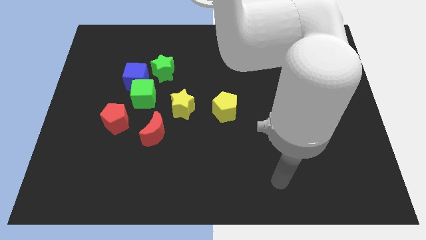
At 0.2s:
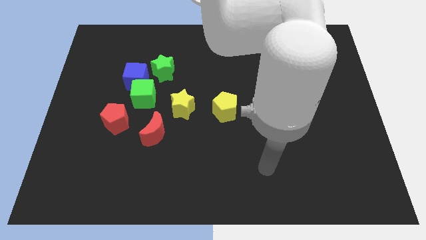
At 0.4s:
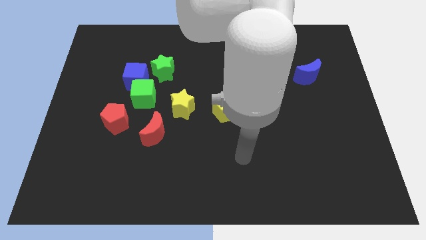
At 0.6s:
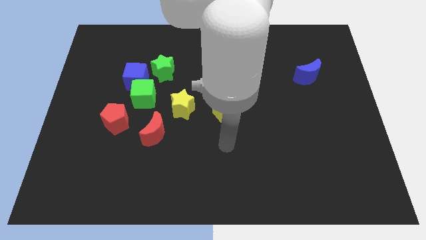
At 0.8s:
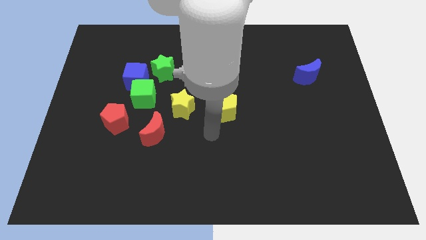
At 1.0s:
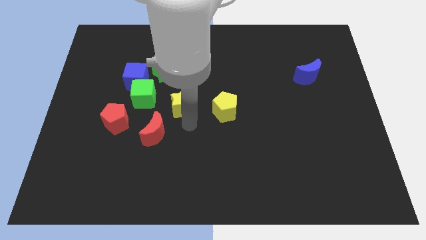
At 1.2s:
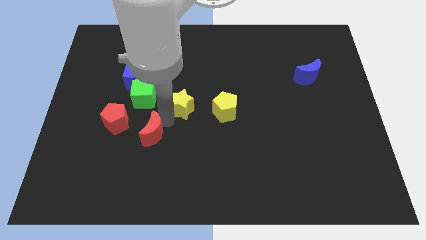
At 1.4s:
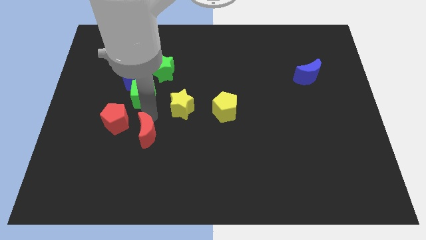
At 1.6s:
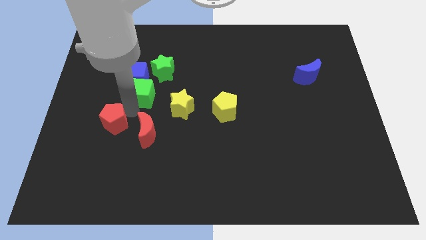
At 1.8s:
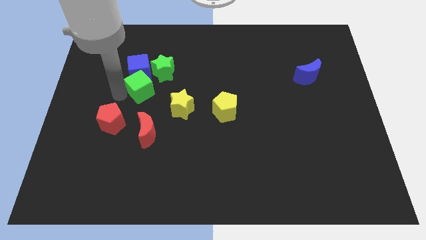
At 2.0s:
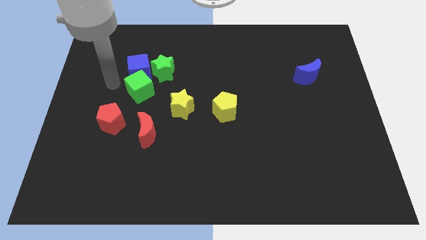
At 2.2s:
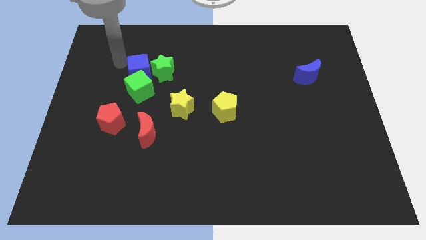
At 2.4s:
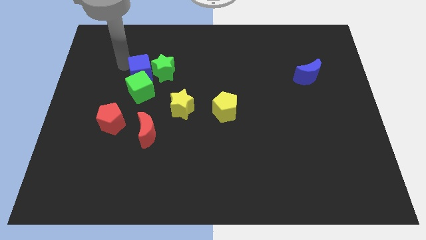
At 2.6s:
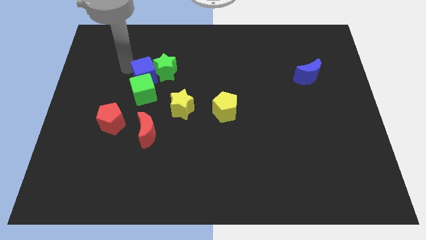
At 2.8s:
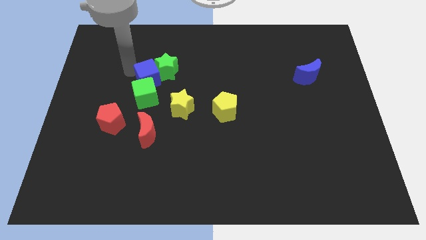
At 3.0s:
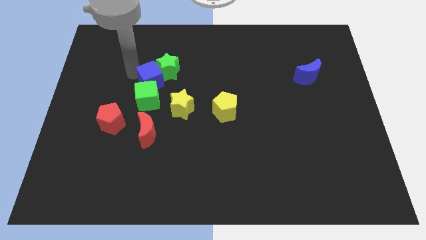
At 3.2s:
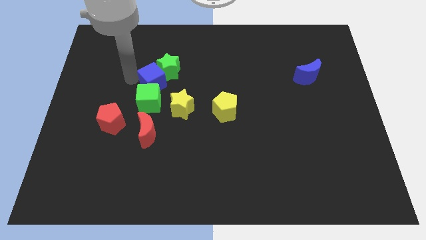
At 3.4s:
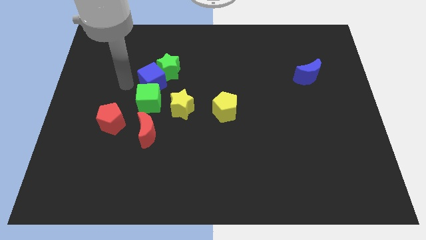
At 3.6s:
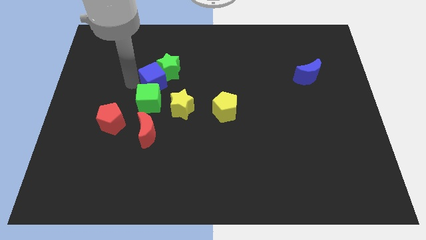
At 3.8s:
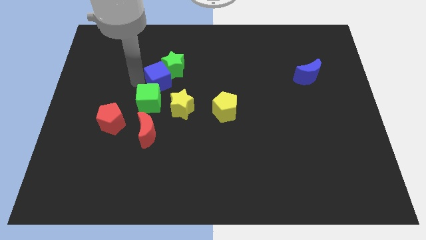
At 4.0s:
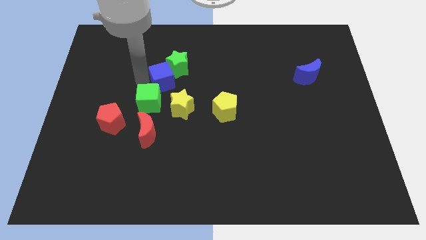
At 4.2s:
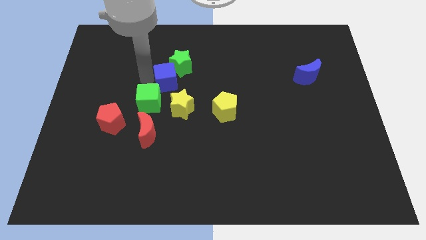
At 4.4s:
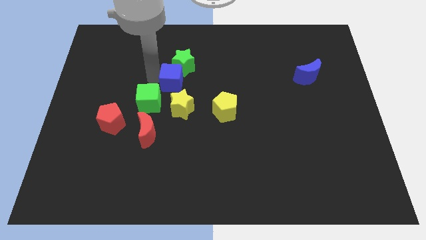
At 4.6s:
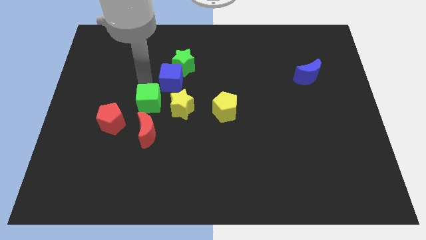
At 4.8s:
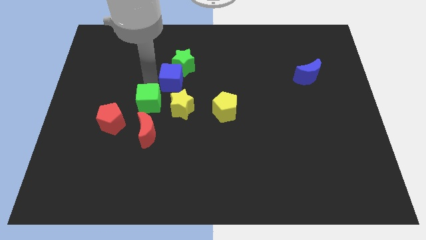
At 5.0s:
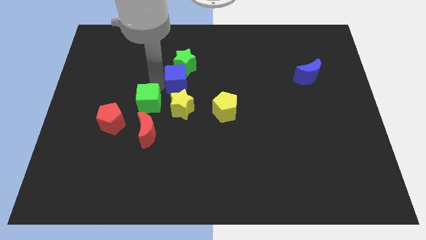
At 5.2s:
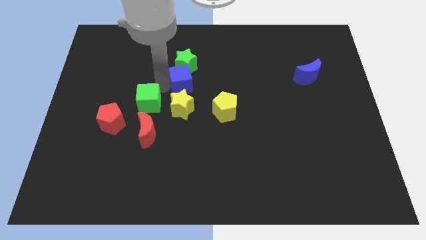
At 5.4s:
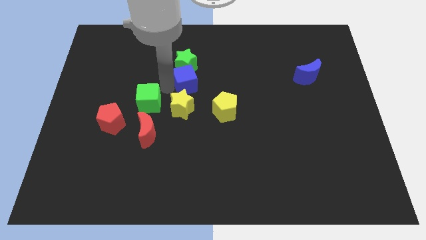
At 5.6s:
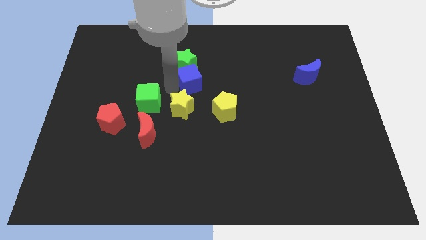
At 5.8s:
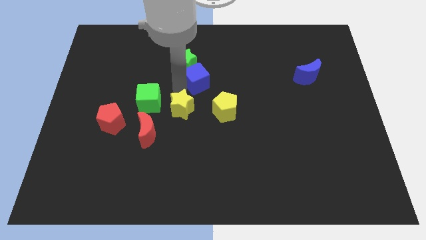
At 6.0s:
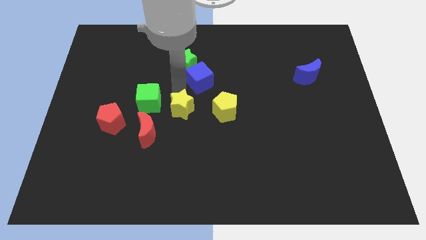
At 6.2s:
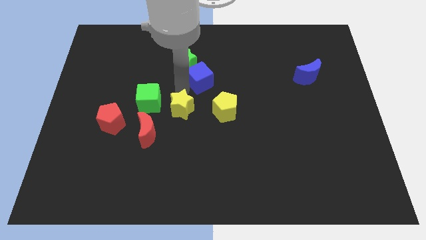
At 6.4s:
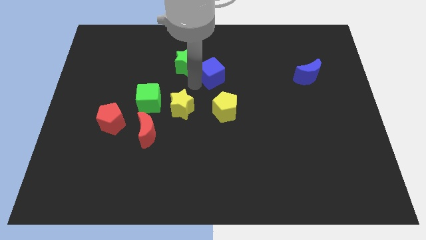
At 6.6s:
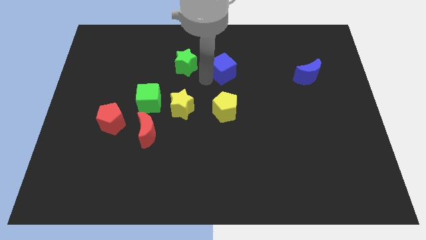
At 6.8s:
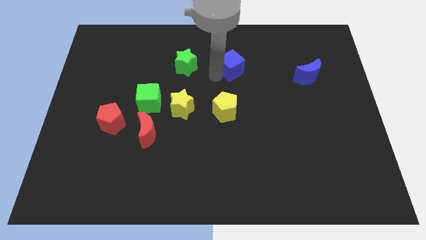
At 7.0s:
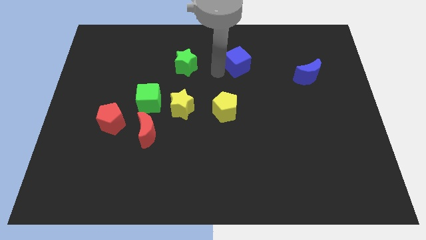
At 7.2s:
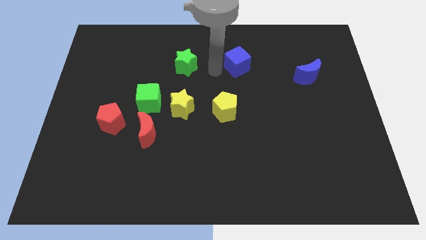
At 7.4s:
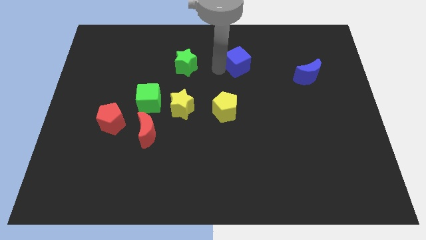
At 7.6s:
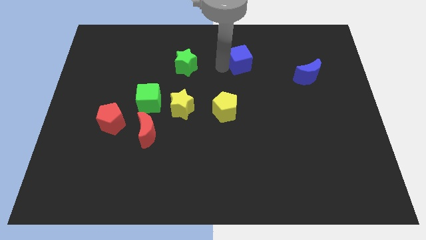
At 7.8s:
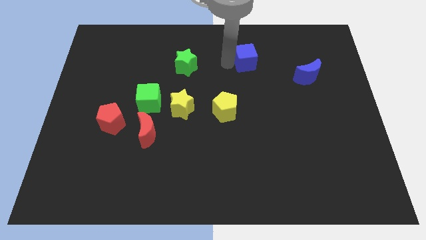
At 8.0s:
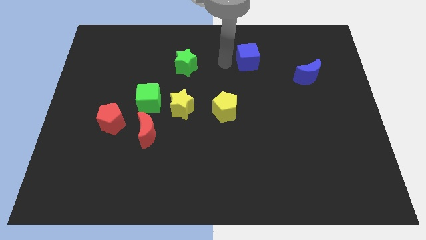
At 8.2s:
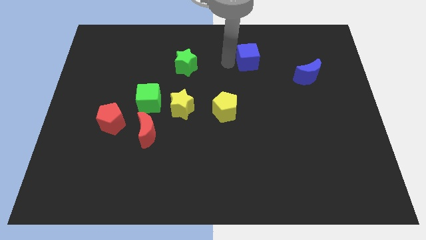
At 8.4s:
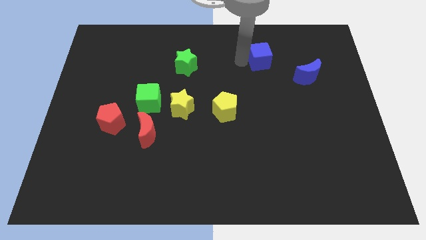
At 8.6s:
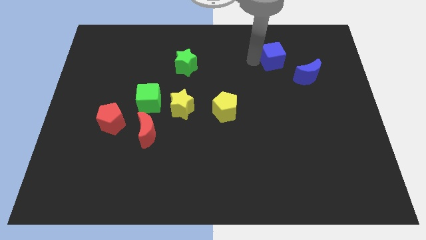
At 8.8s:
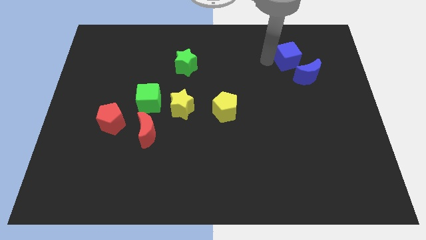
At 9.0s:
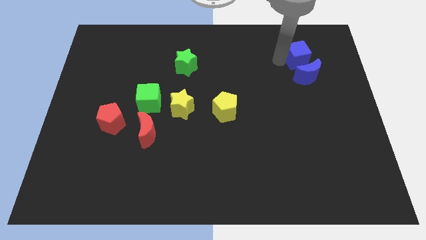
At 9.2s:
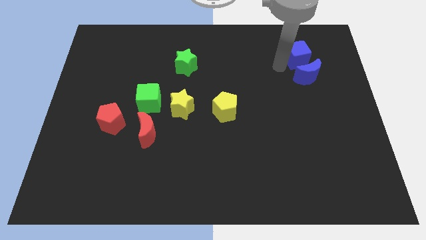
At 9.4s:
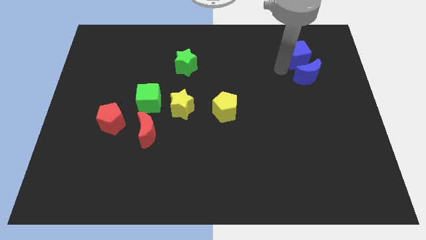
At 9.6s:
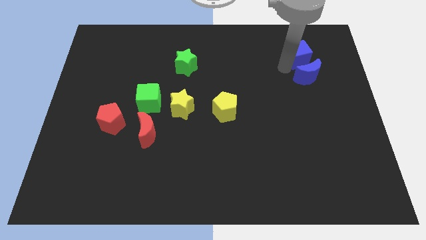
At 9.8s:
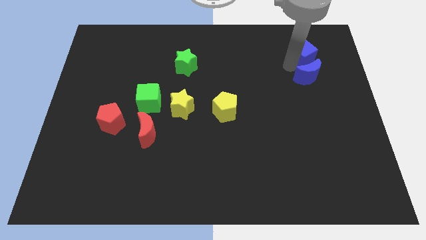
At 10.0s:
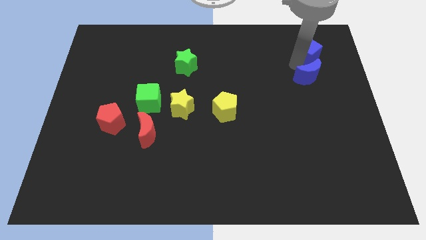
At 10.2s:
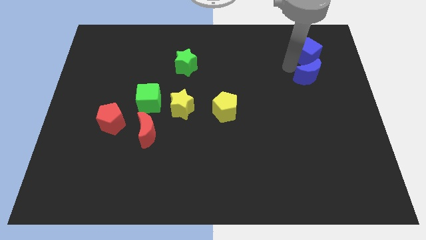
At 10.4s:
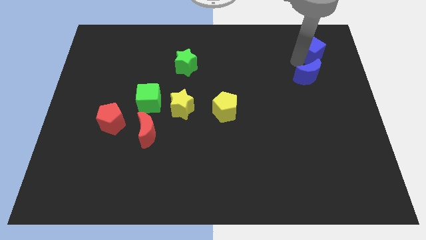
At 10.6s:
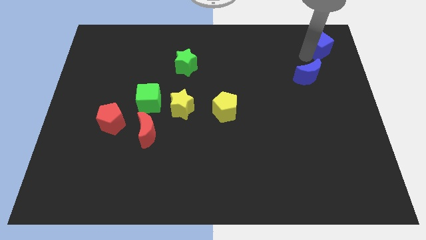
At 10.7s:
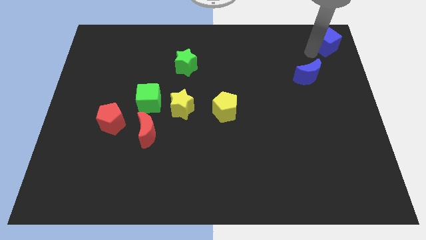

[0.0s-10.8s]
slide the blue cube to the upper right corner

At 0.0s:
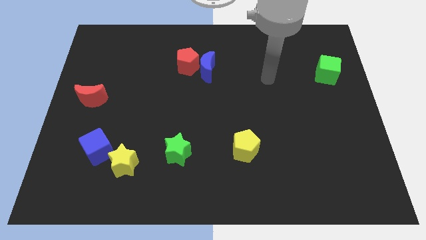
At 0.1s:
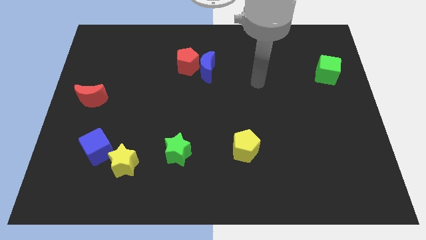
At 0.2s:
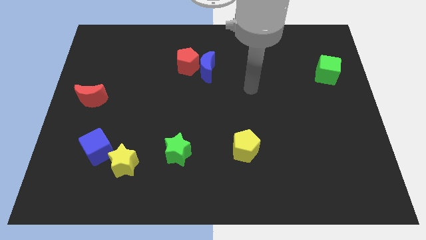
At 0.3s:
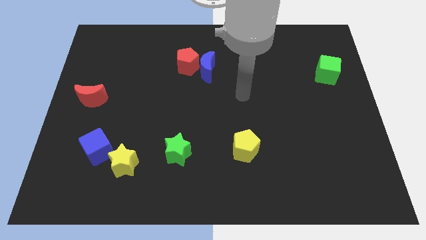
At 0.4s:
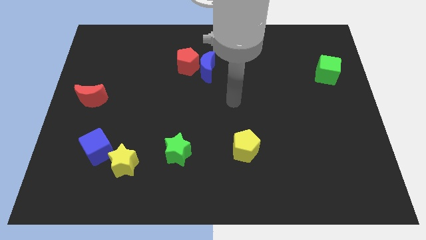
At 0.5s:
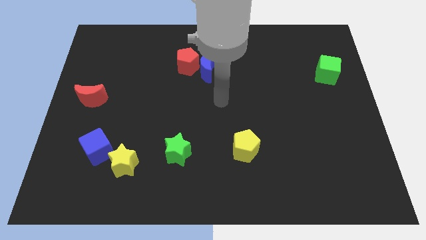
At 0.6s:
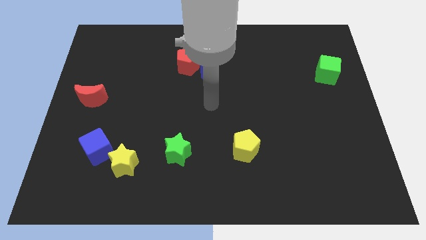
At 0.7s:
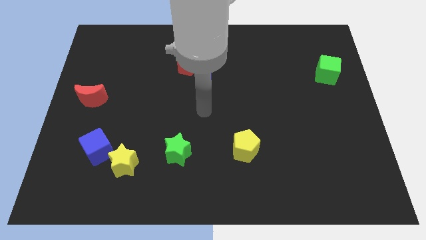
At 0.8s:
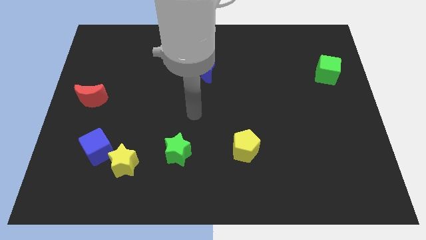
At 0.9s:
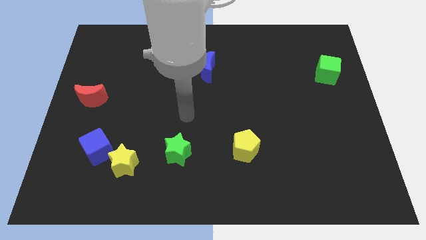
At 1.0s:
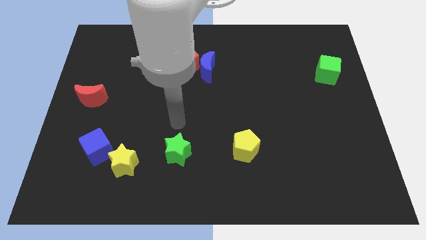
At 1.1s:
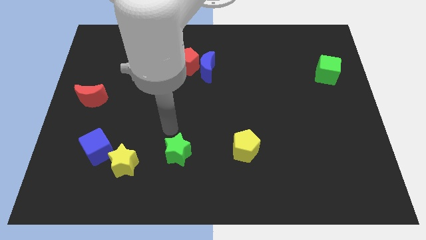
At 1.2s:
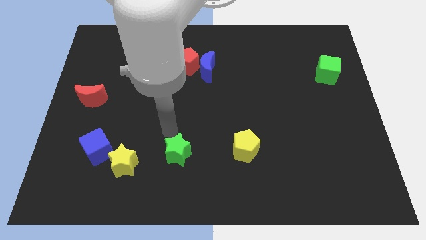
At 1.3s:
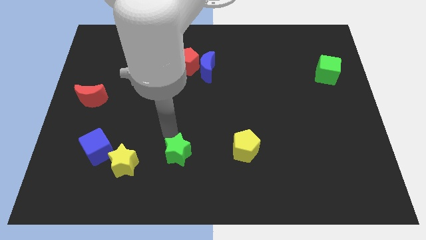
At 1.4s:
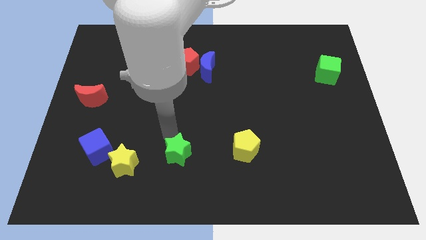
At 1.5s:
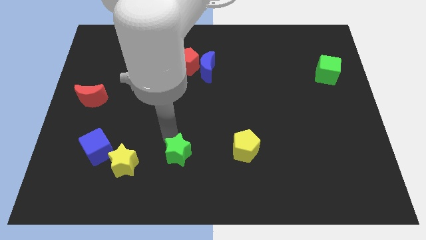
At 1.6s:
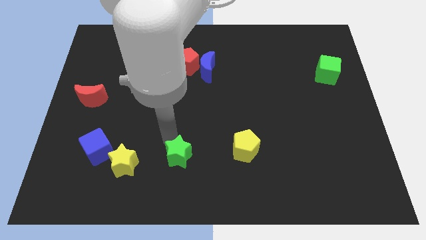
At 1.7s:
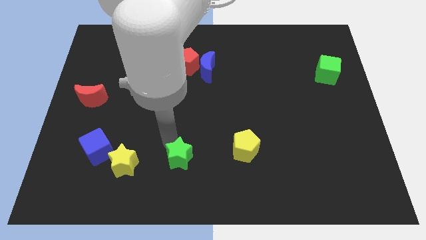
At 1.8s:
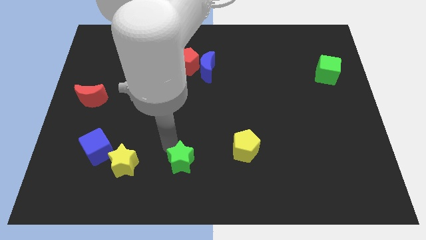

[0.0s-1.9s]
move the green star to the bottom side
